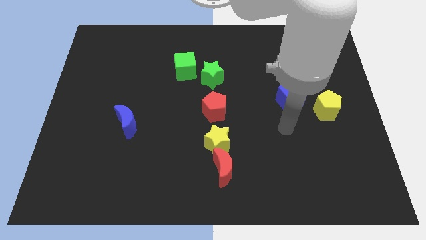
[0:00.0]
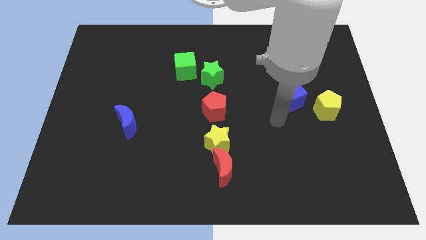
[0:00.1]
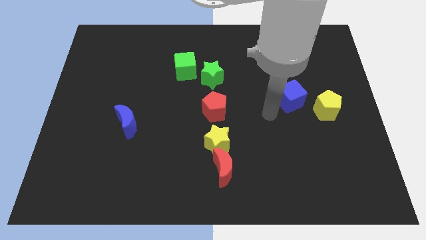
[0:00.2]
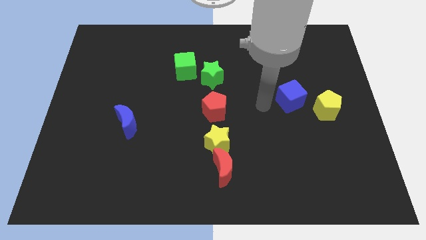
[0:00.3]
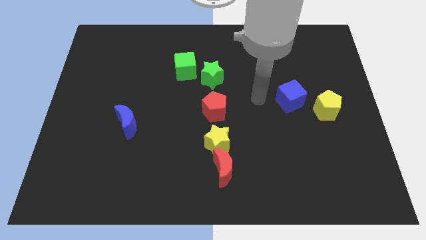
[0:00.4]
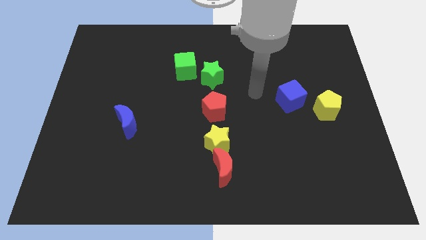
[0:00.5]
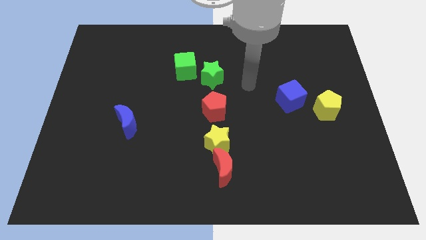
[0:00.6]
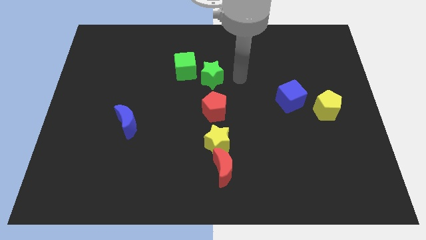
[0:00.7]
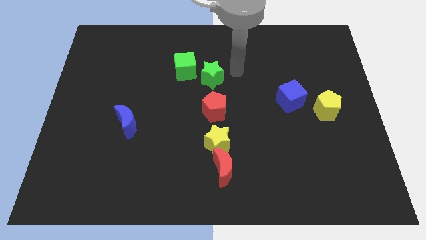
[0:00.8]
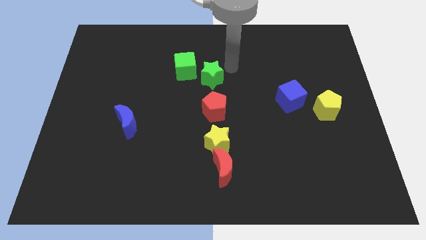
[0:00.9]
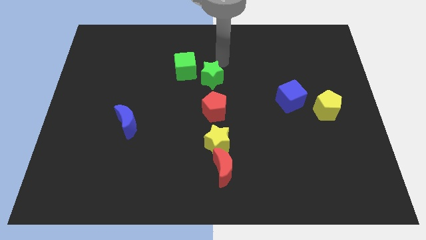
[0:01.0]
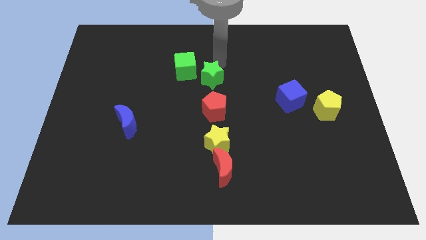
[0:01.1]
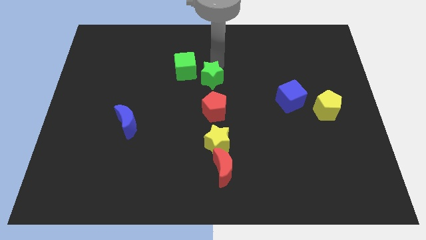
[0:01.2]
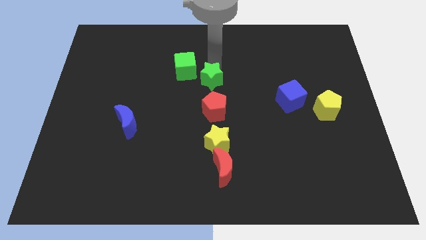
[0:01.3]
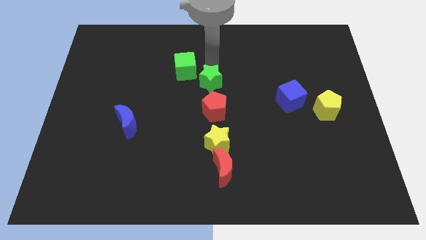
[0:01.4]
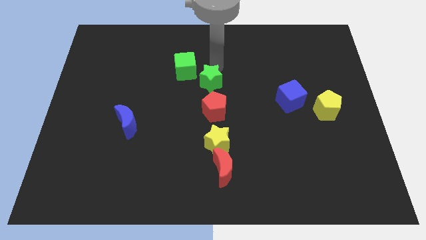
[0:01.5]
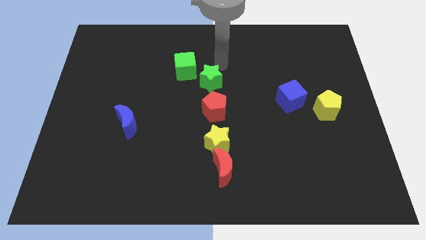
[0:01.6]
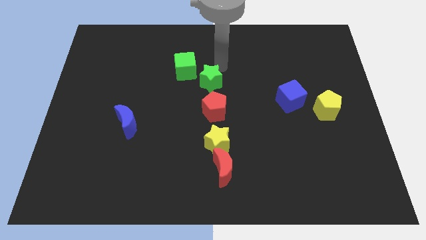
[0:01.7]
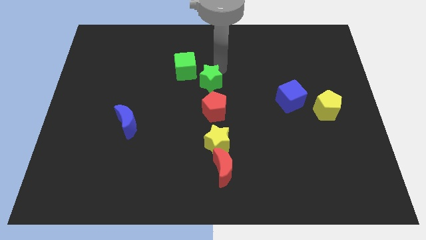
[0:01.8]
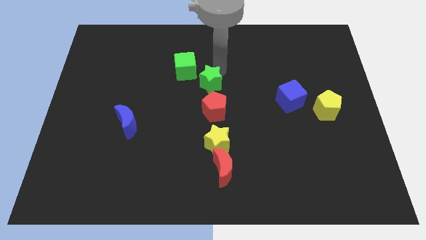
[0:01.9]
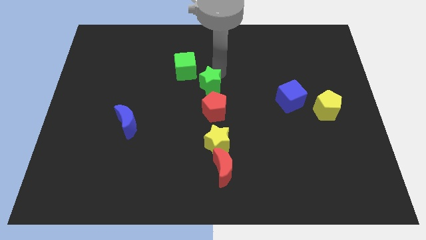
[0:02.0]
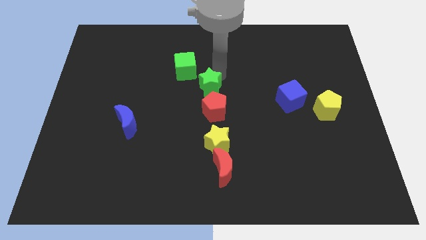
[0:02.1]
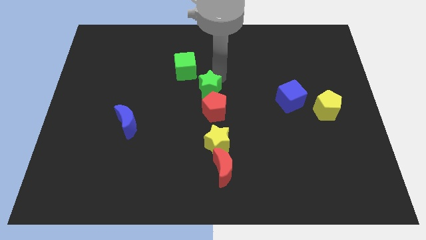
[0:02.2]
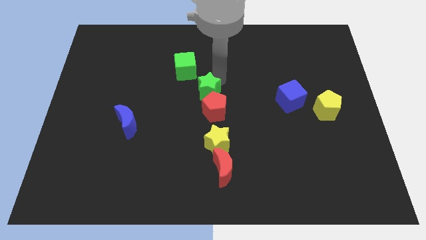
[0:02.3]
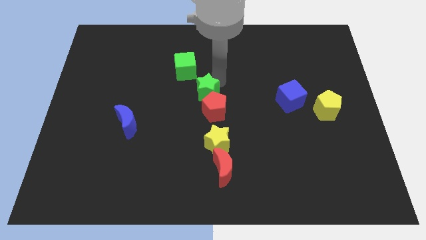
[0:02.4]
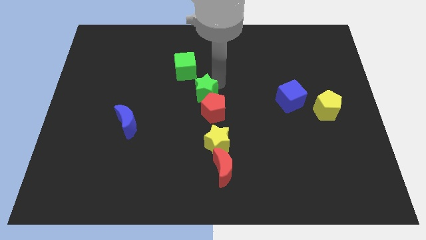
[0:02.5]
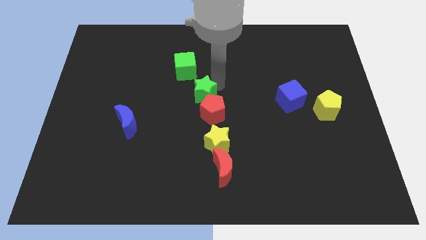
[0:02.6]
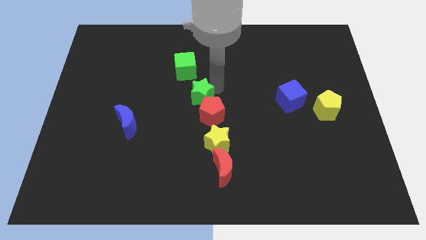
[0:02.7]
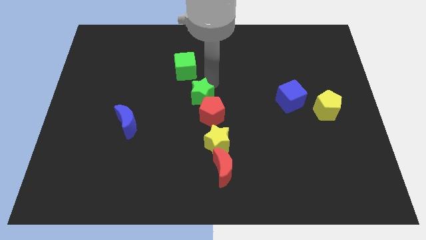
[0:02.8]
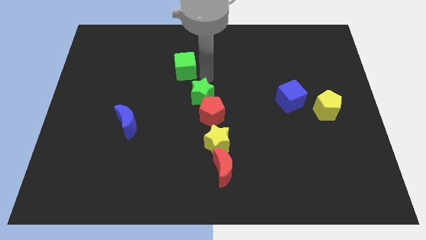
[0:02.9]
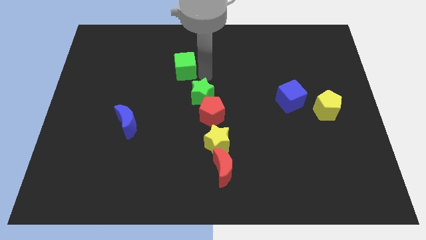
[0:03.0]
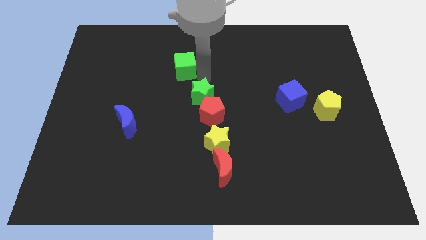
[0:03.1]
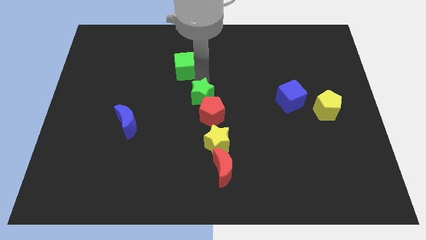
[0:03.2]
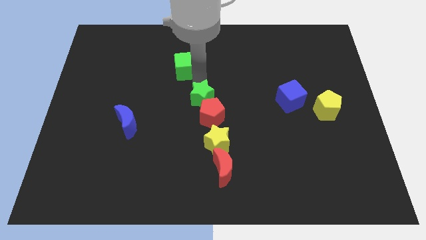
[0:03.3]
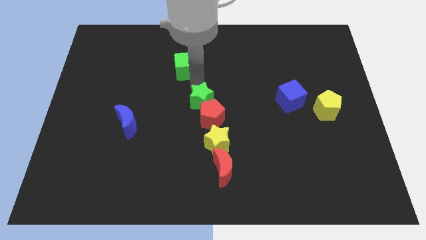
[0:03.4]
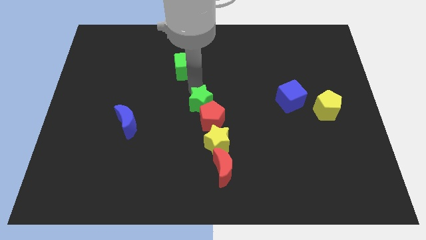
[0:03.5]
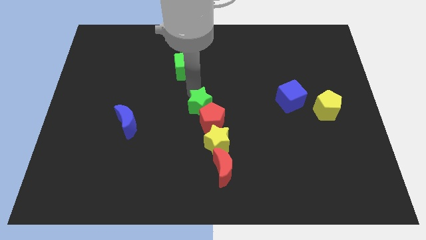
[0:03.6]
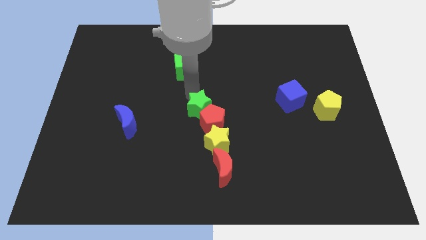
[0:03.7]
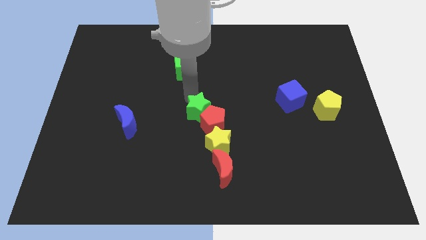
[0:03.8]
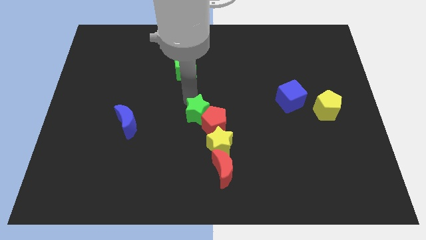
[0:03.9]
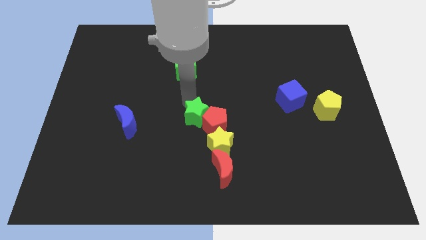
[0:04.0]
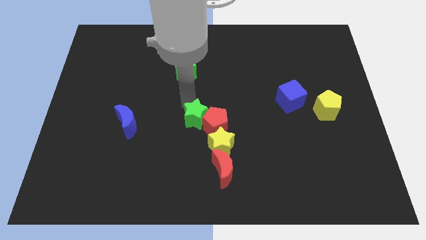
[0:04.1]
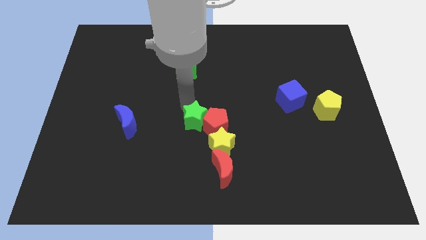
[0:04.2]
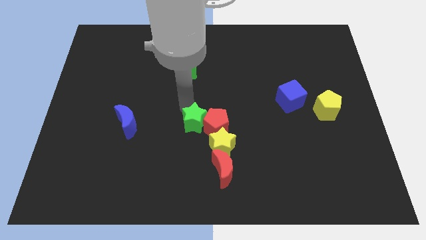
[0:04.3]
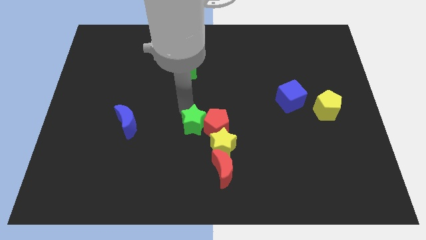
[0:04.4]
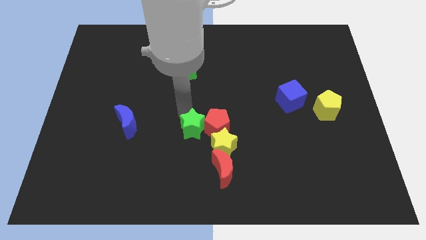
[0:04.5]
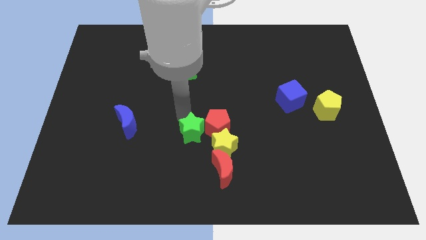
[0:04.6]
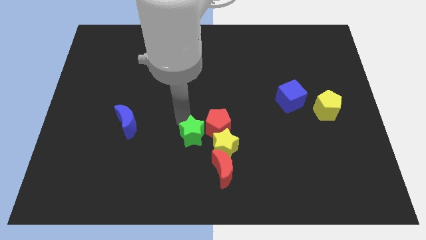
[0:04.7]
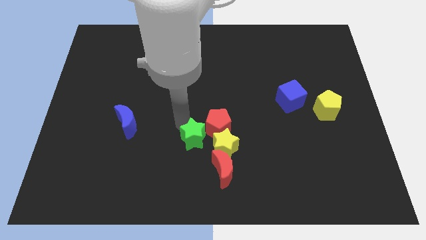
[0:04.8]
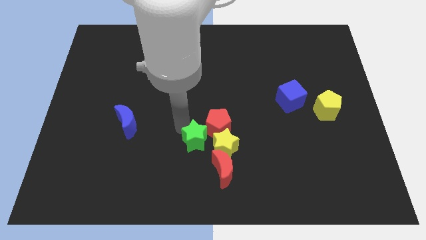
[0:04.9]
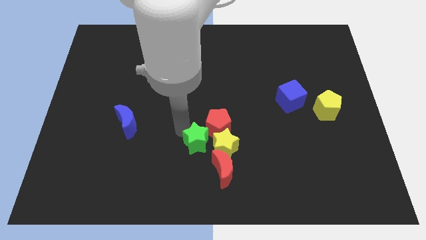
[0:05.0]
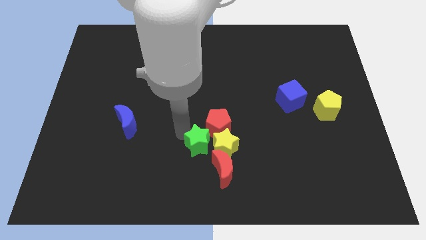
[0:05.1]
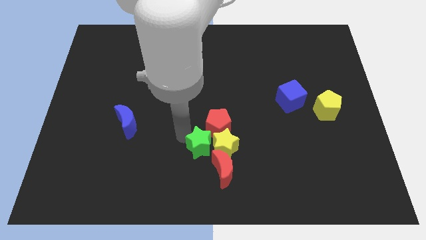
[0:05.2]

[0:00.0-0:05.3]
push the green star diagonally down and to the left of the yellow star

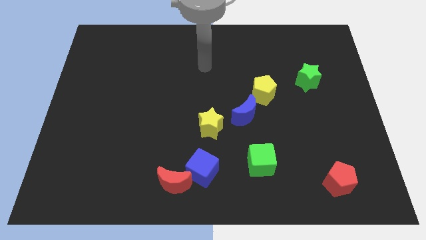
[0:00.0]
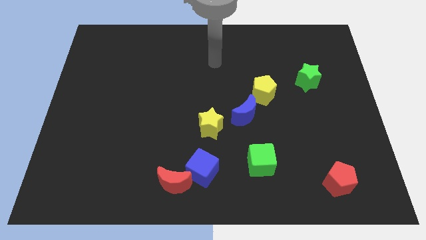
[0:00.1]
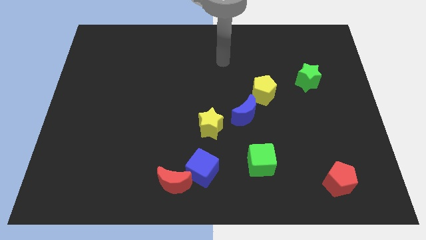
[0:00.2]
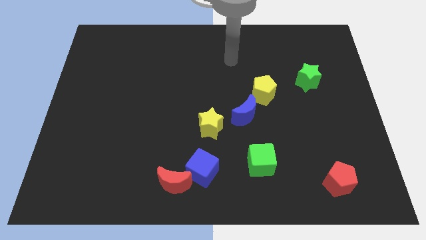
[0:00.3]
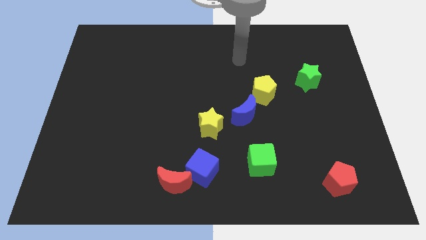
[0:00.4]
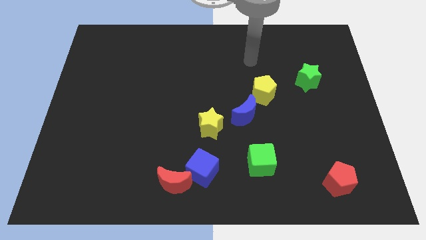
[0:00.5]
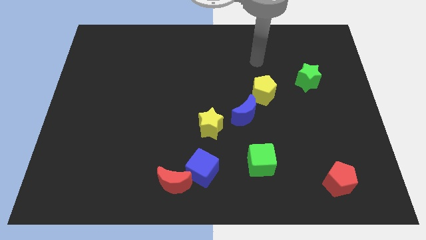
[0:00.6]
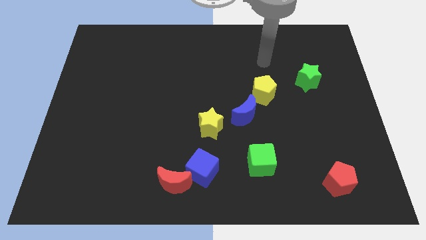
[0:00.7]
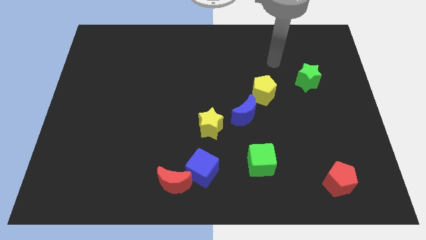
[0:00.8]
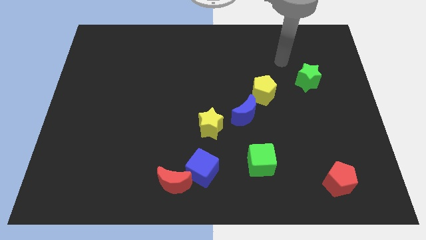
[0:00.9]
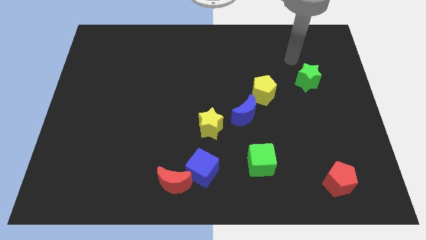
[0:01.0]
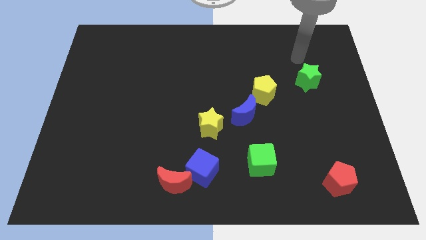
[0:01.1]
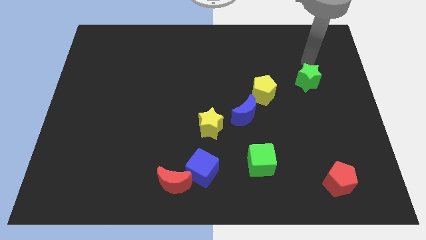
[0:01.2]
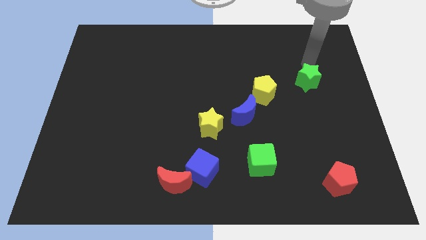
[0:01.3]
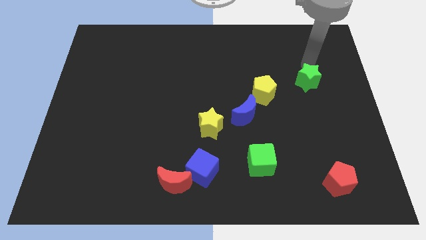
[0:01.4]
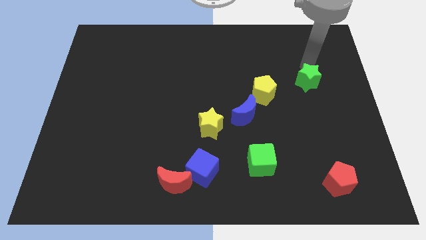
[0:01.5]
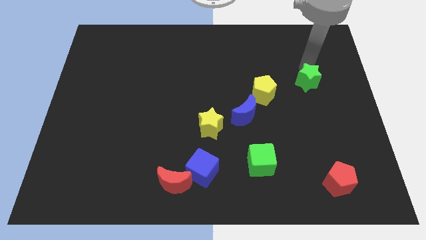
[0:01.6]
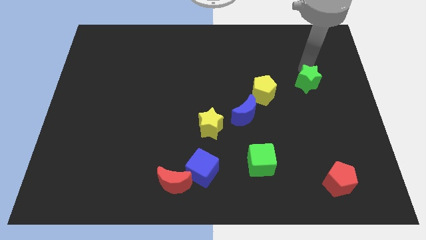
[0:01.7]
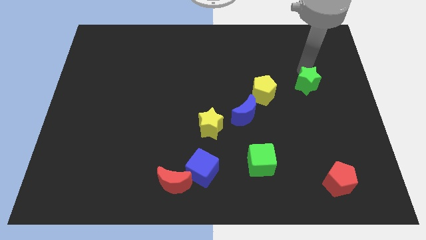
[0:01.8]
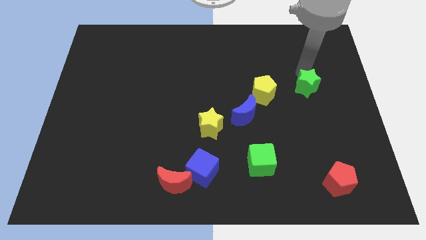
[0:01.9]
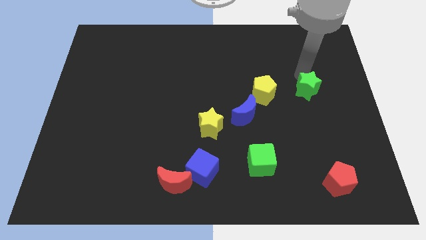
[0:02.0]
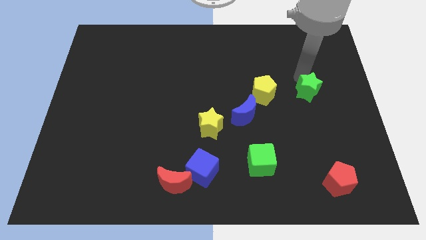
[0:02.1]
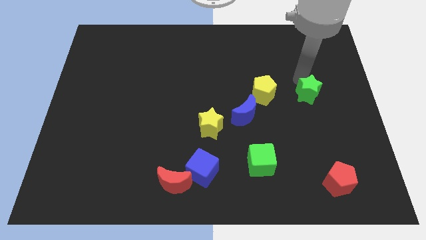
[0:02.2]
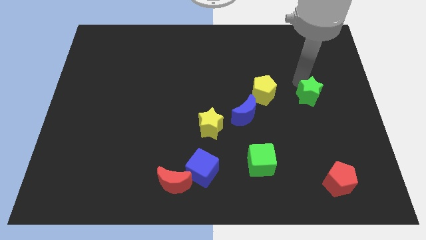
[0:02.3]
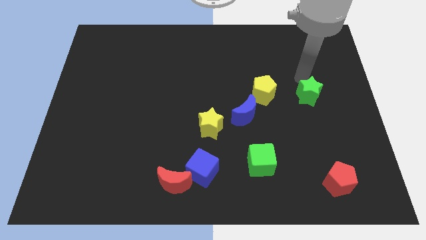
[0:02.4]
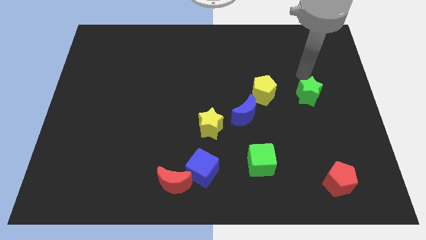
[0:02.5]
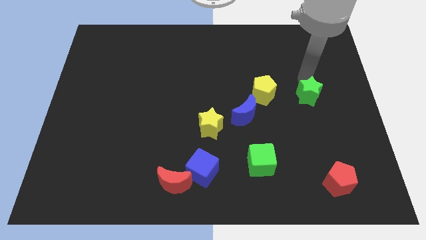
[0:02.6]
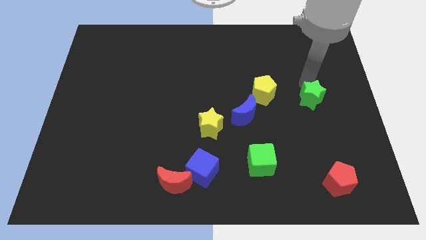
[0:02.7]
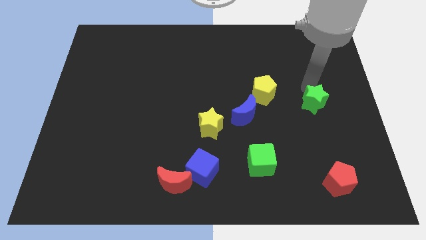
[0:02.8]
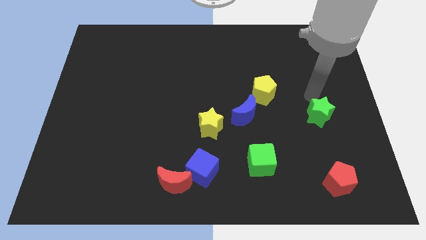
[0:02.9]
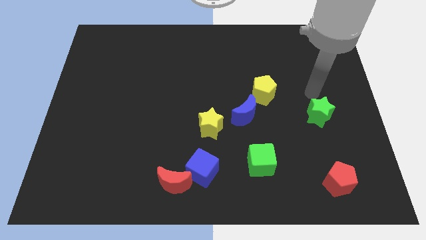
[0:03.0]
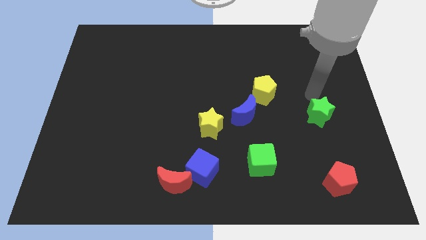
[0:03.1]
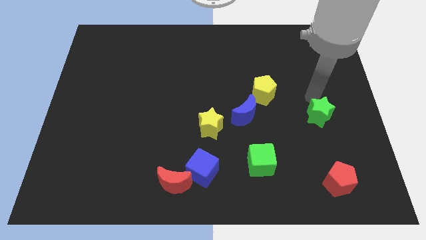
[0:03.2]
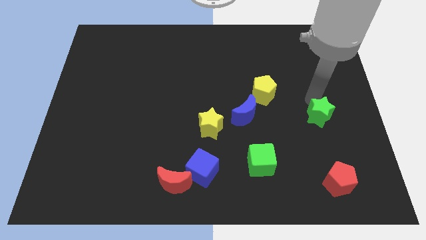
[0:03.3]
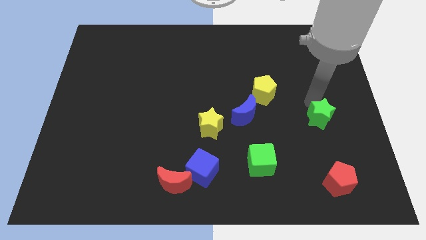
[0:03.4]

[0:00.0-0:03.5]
push the green star to the top of the red pentagon
